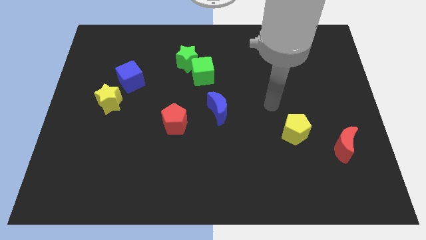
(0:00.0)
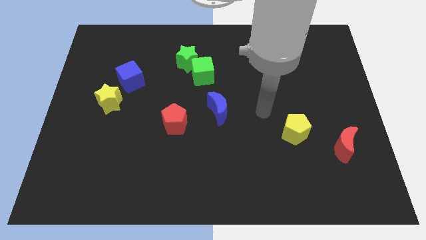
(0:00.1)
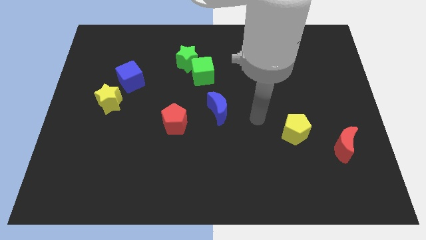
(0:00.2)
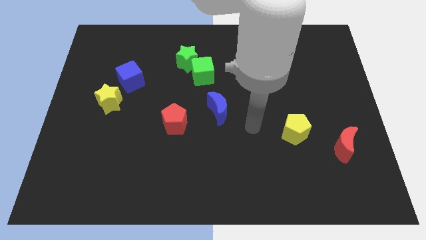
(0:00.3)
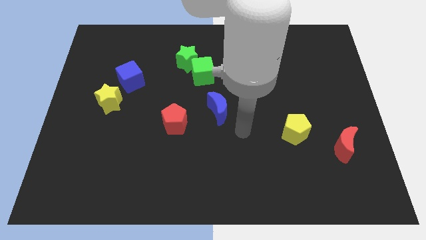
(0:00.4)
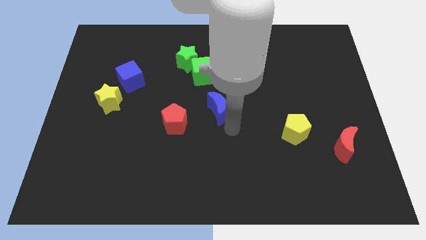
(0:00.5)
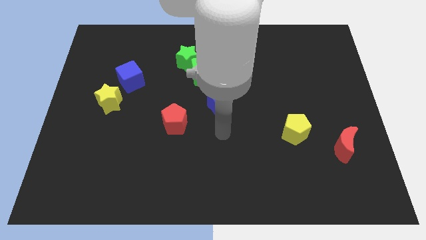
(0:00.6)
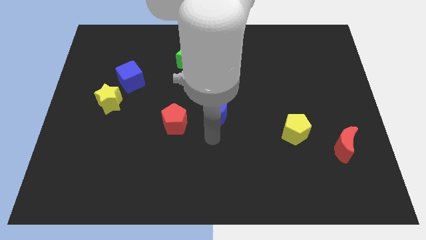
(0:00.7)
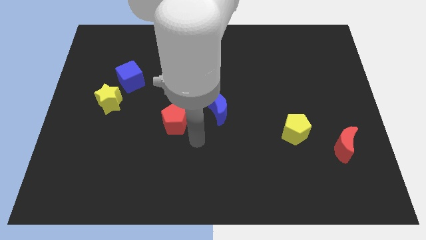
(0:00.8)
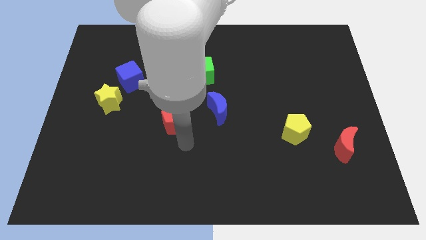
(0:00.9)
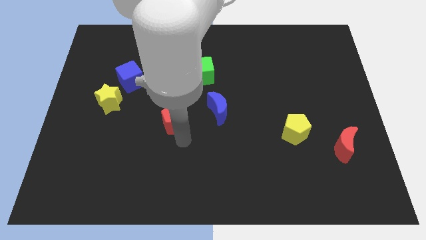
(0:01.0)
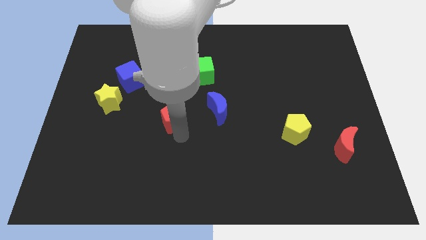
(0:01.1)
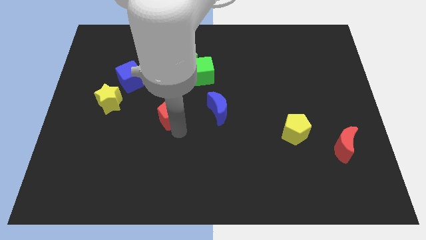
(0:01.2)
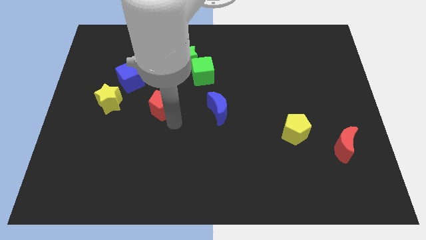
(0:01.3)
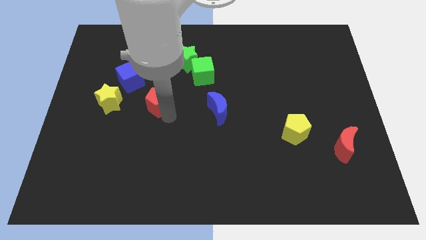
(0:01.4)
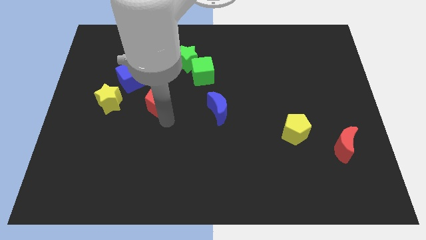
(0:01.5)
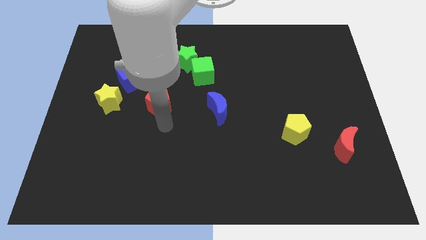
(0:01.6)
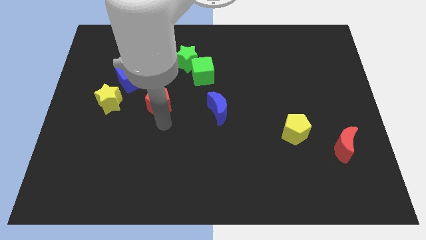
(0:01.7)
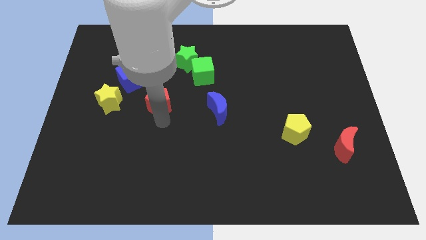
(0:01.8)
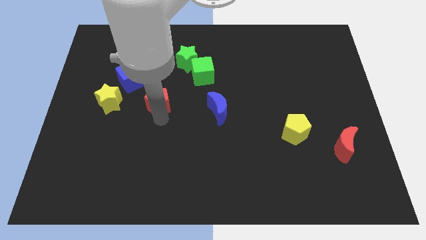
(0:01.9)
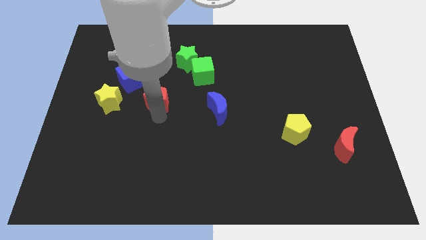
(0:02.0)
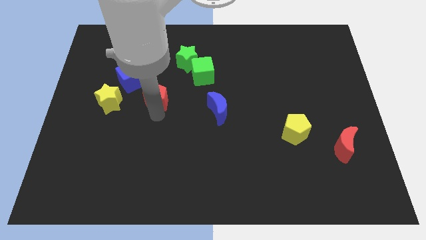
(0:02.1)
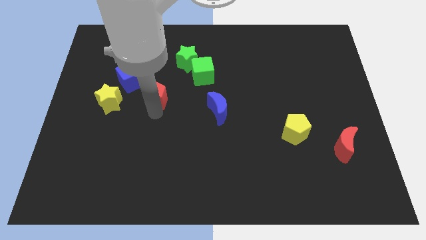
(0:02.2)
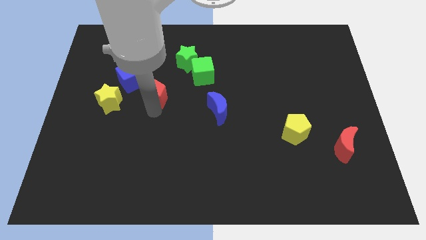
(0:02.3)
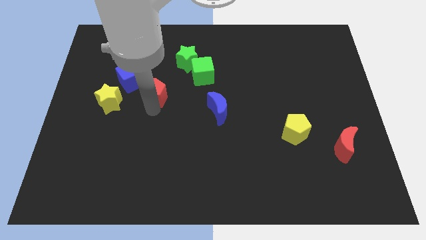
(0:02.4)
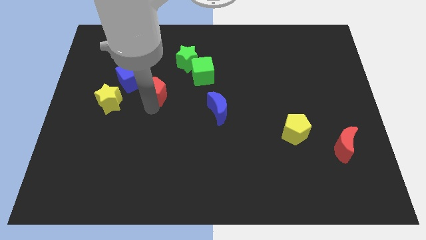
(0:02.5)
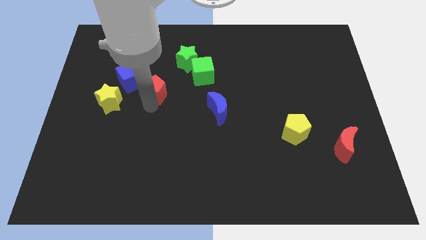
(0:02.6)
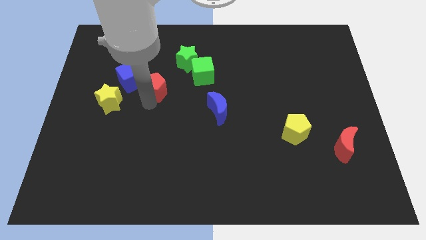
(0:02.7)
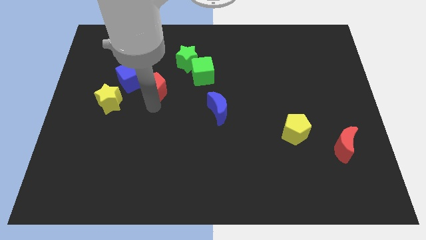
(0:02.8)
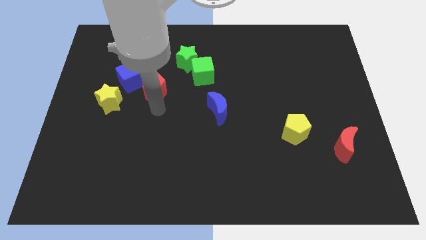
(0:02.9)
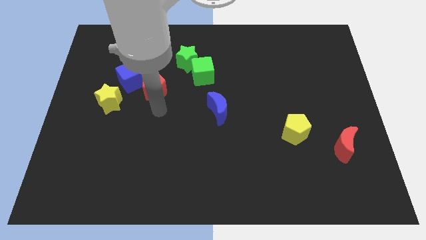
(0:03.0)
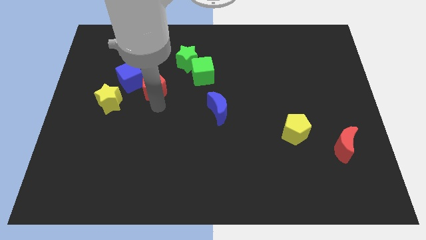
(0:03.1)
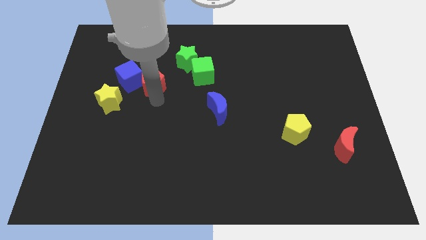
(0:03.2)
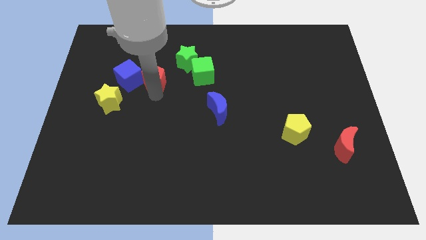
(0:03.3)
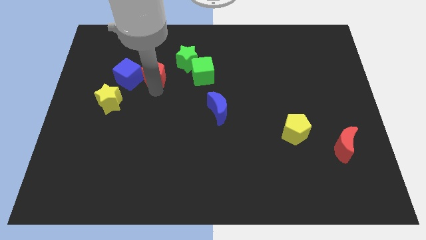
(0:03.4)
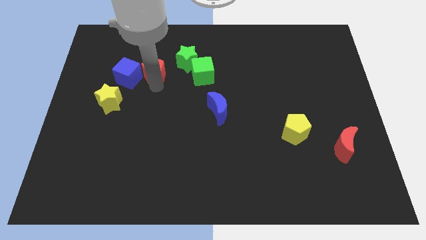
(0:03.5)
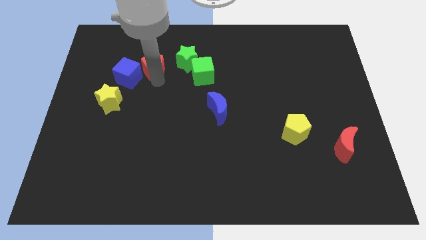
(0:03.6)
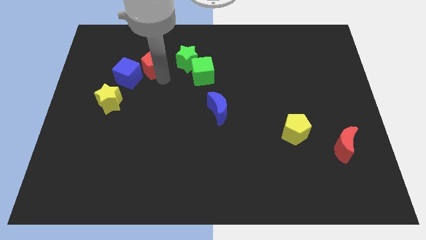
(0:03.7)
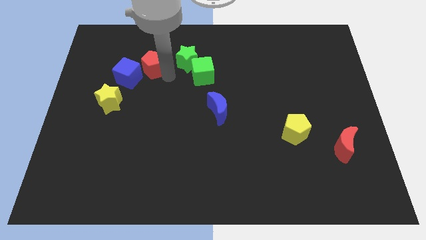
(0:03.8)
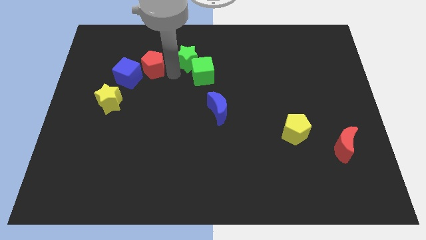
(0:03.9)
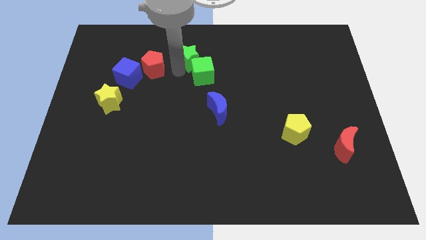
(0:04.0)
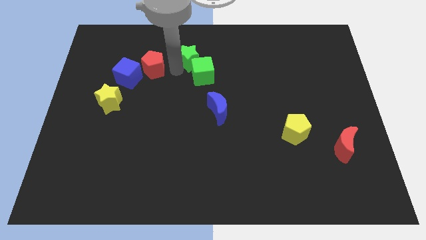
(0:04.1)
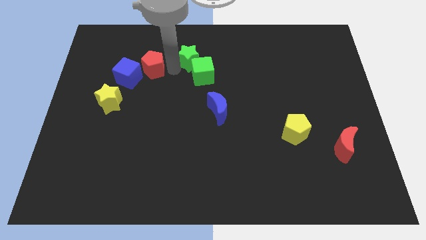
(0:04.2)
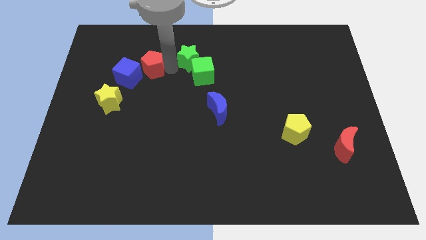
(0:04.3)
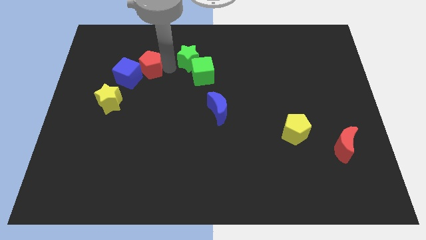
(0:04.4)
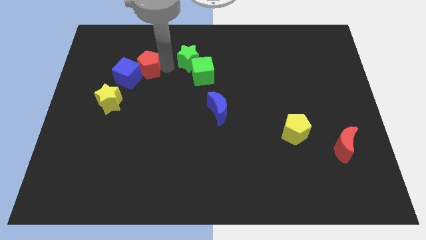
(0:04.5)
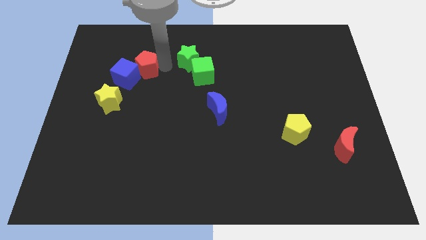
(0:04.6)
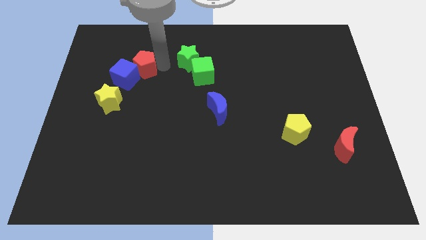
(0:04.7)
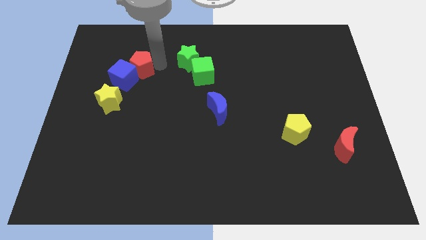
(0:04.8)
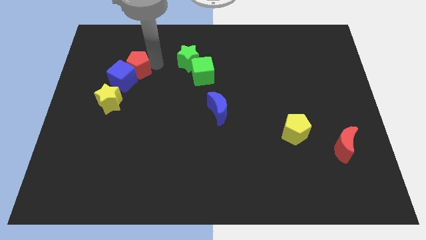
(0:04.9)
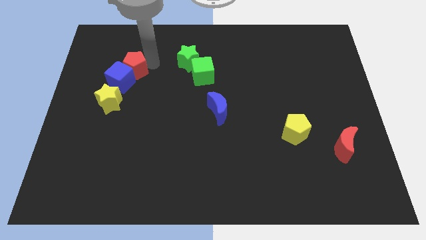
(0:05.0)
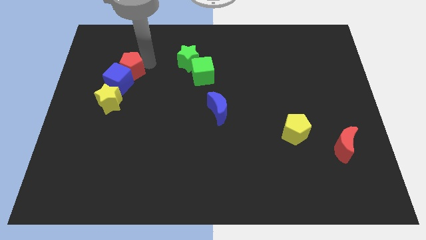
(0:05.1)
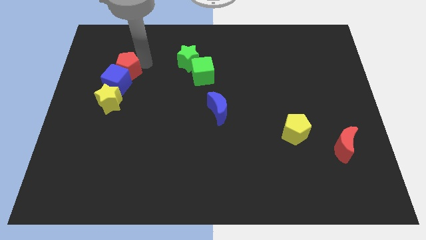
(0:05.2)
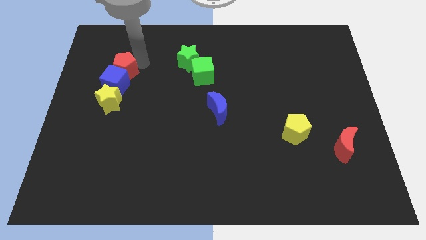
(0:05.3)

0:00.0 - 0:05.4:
slide the red pentagon diagonally up and to the left of the blue cube

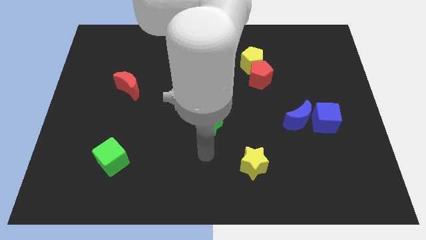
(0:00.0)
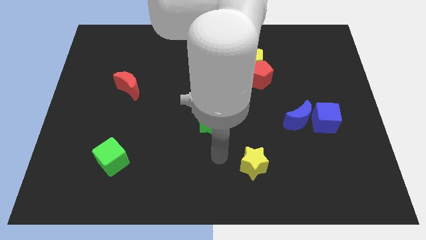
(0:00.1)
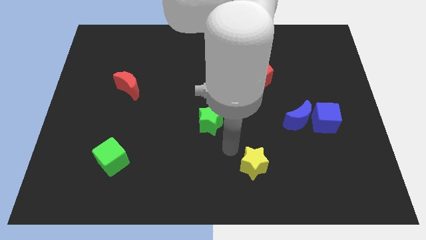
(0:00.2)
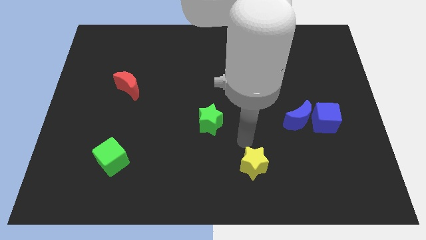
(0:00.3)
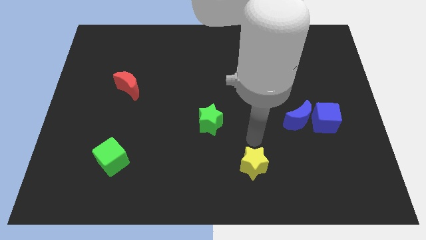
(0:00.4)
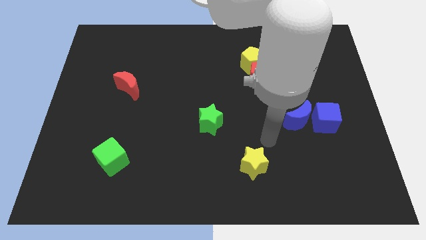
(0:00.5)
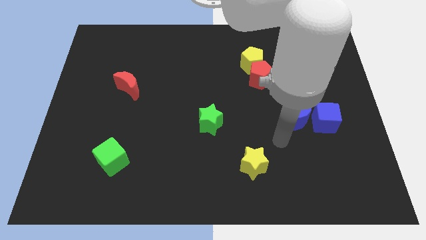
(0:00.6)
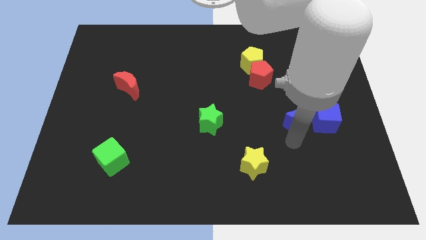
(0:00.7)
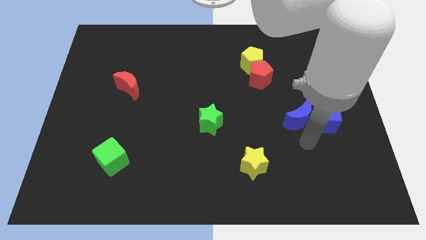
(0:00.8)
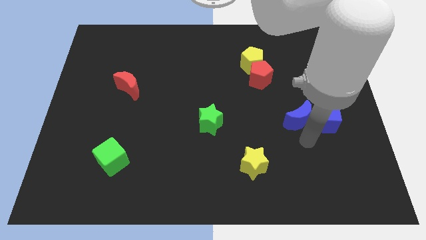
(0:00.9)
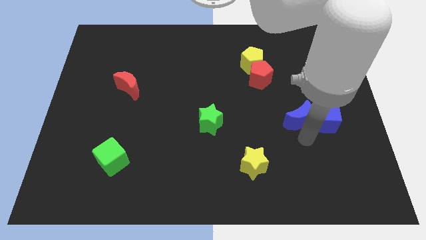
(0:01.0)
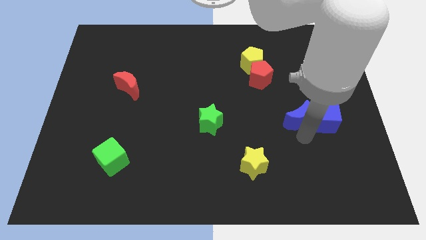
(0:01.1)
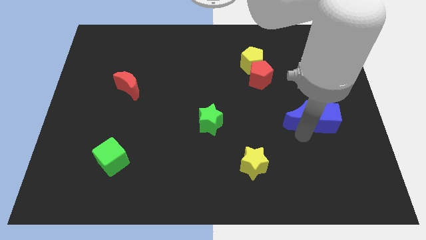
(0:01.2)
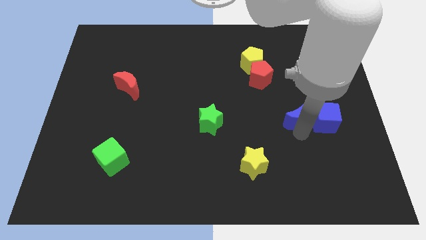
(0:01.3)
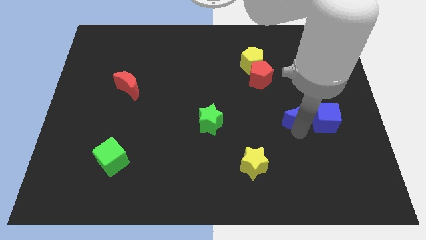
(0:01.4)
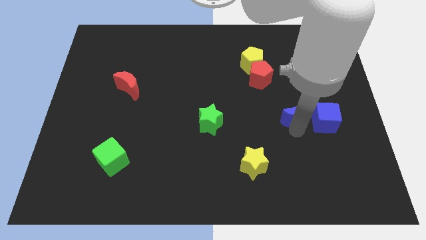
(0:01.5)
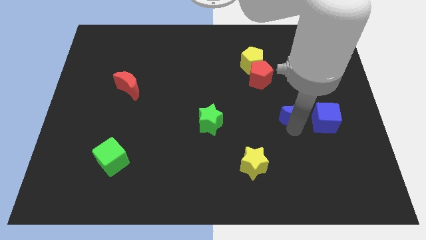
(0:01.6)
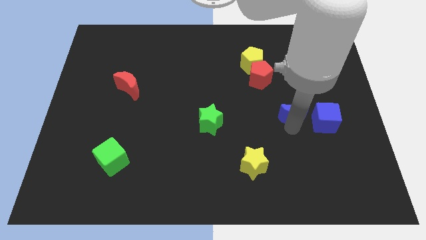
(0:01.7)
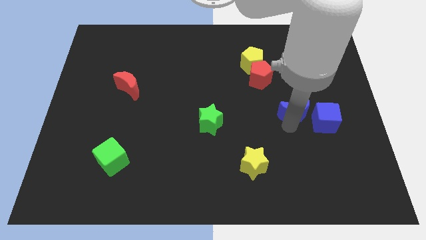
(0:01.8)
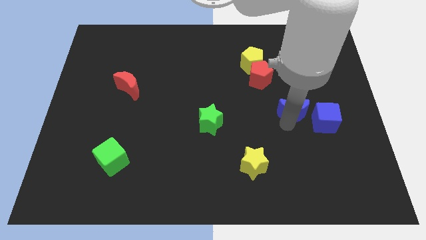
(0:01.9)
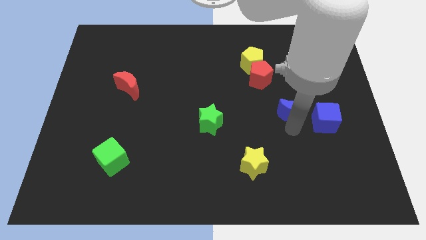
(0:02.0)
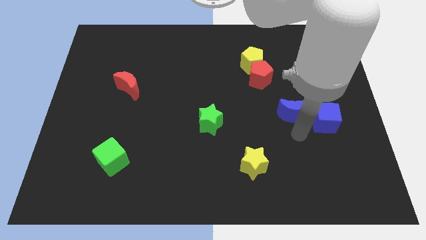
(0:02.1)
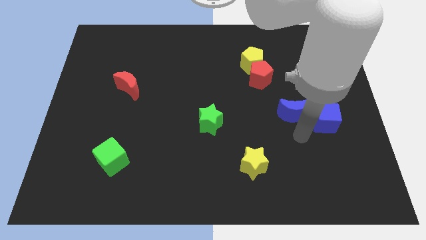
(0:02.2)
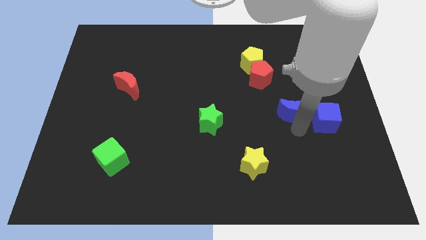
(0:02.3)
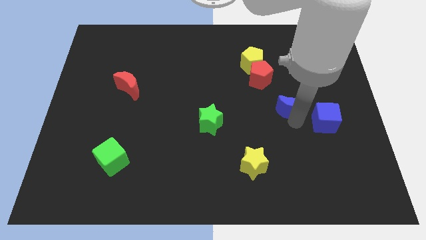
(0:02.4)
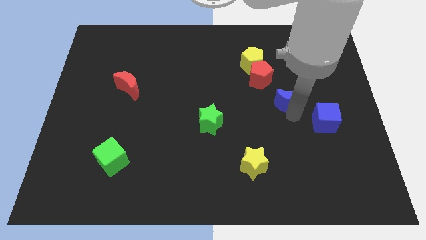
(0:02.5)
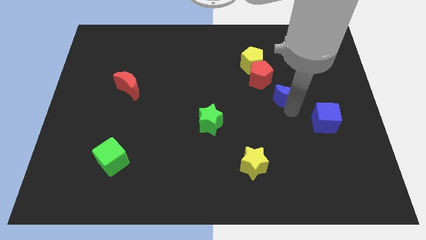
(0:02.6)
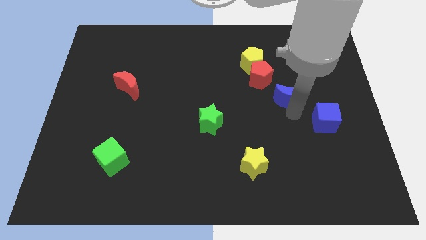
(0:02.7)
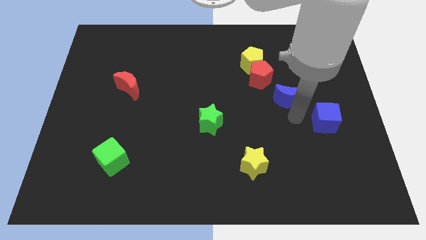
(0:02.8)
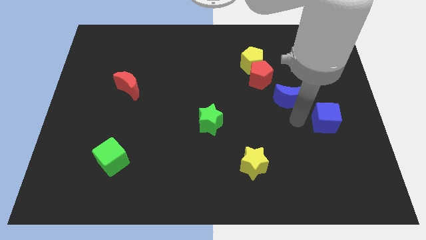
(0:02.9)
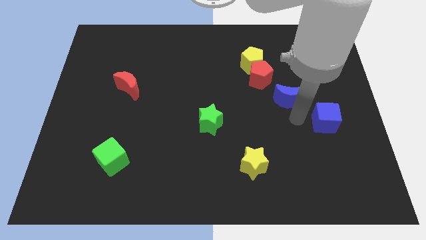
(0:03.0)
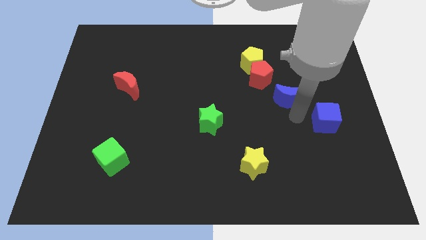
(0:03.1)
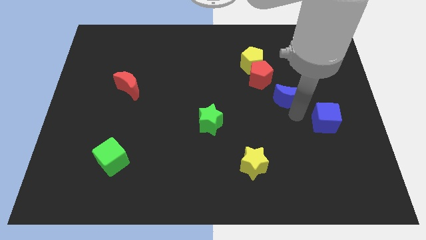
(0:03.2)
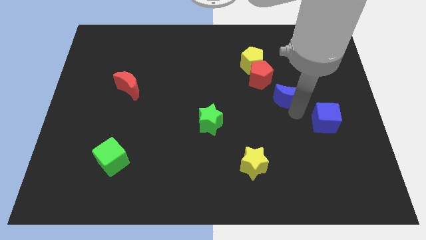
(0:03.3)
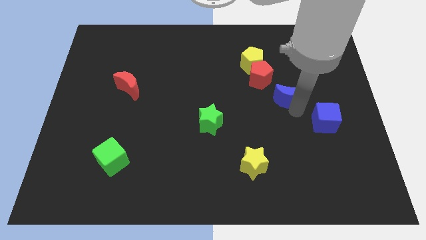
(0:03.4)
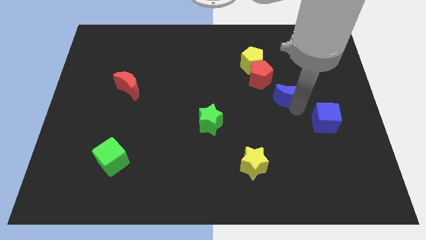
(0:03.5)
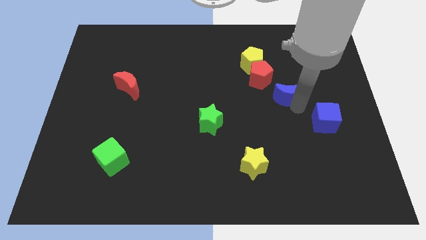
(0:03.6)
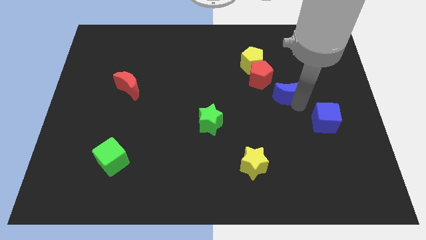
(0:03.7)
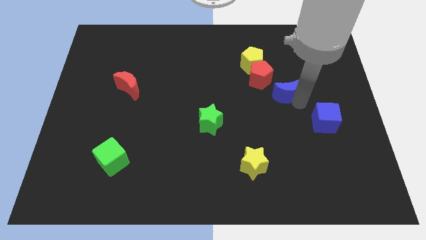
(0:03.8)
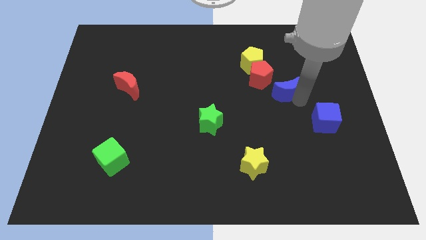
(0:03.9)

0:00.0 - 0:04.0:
slide the blue moon diagonally down and to the right of the yellow pentagon
